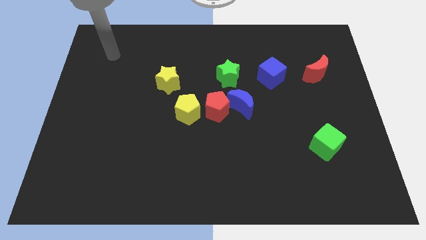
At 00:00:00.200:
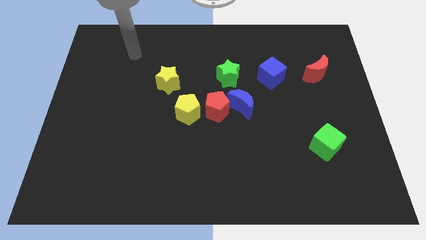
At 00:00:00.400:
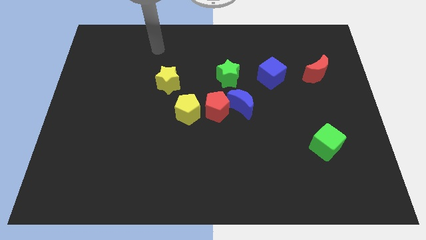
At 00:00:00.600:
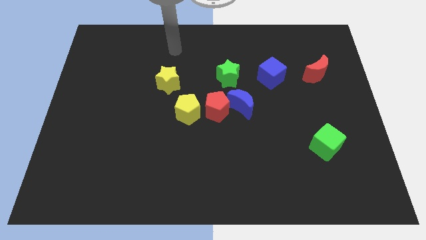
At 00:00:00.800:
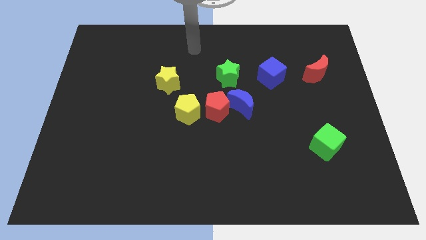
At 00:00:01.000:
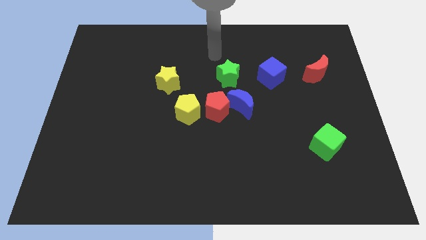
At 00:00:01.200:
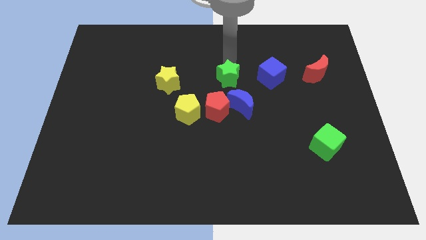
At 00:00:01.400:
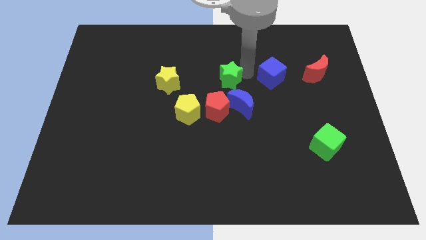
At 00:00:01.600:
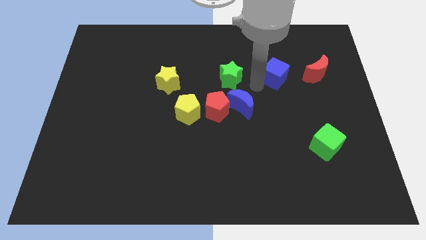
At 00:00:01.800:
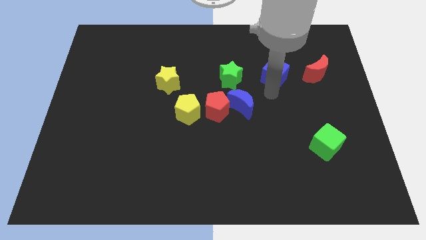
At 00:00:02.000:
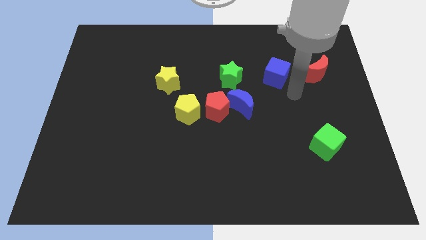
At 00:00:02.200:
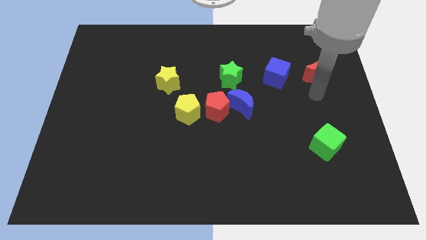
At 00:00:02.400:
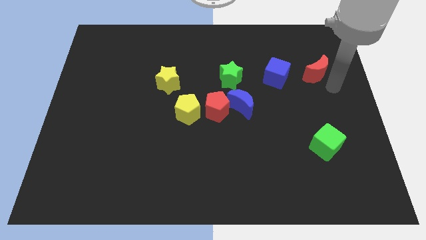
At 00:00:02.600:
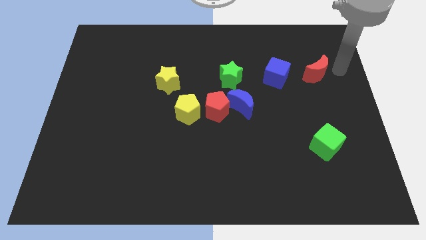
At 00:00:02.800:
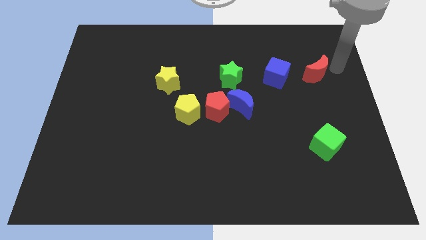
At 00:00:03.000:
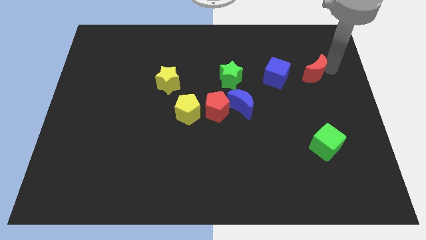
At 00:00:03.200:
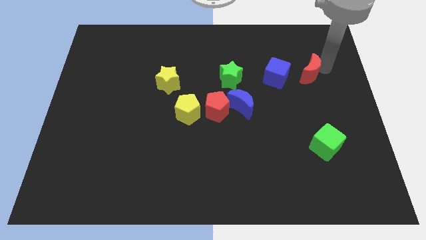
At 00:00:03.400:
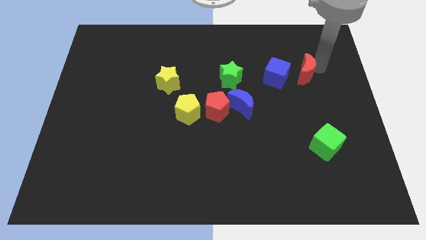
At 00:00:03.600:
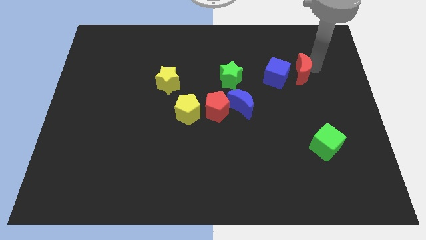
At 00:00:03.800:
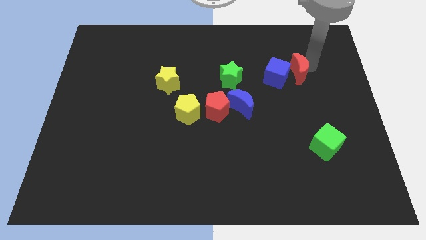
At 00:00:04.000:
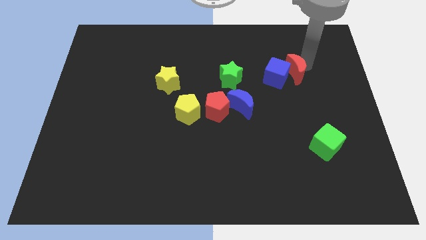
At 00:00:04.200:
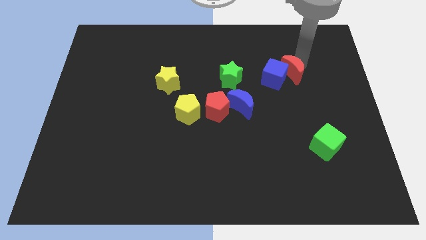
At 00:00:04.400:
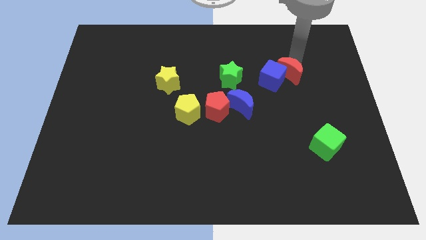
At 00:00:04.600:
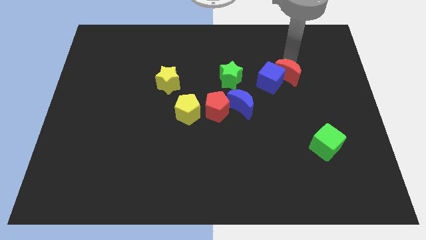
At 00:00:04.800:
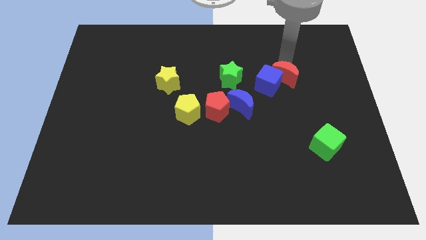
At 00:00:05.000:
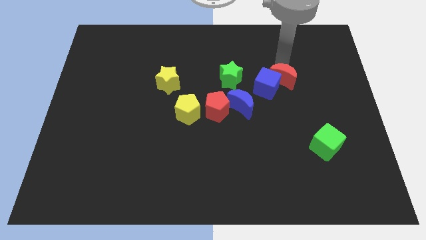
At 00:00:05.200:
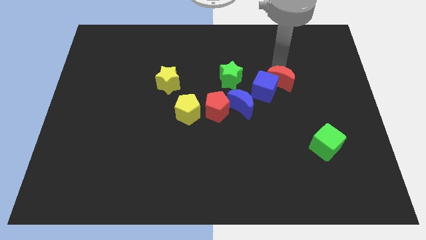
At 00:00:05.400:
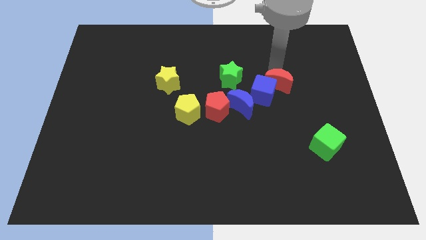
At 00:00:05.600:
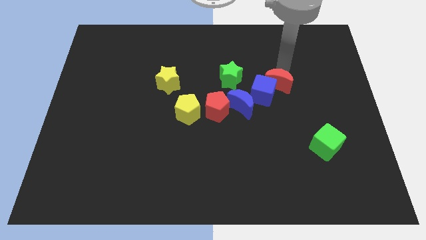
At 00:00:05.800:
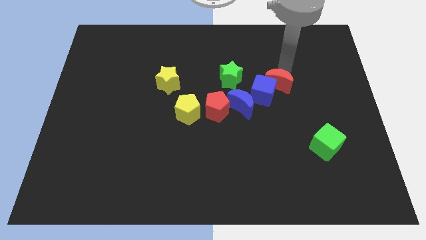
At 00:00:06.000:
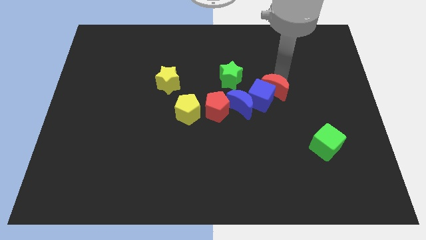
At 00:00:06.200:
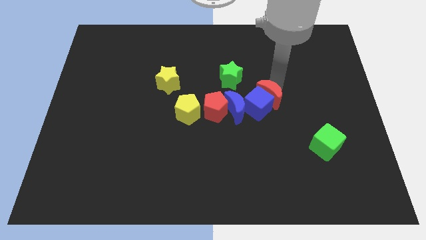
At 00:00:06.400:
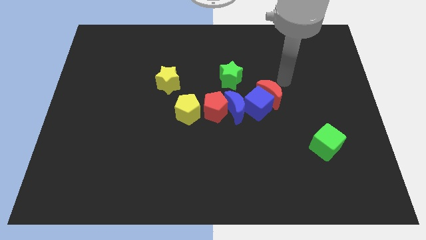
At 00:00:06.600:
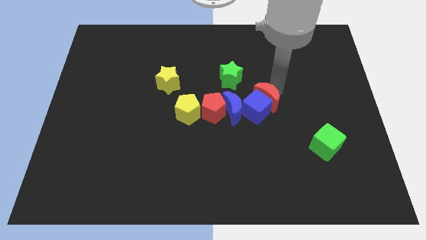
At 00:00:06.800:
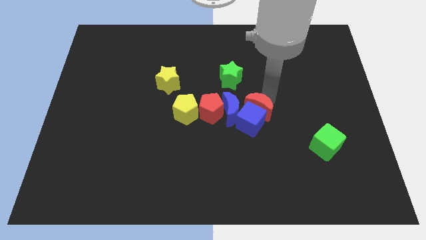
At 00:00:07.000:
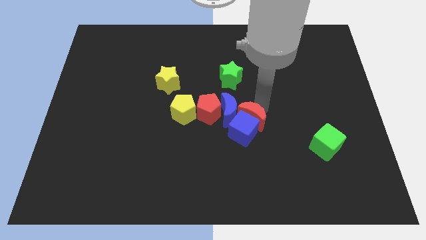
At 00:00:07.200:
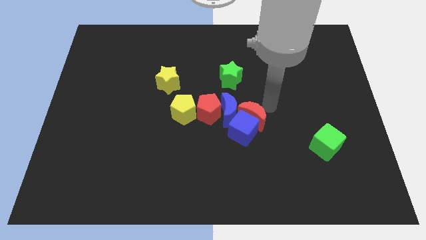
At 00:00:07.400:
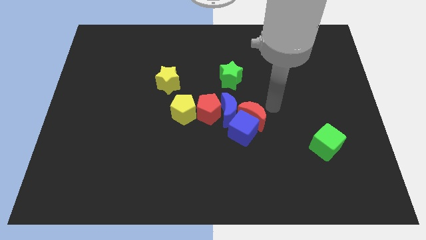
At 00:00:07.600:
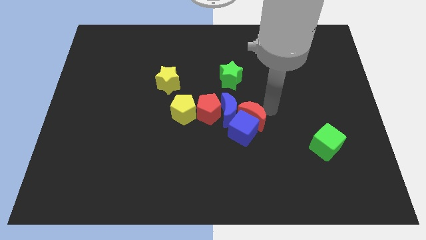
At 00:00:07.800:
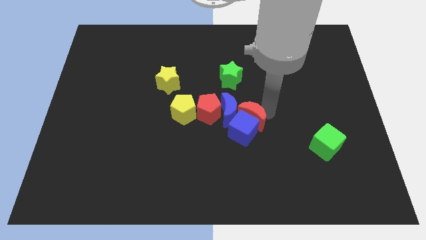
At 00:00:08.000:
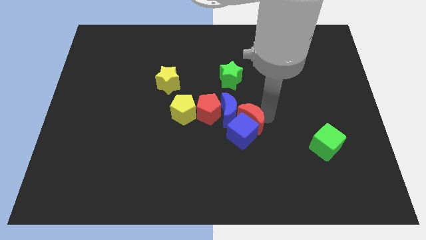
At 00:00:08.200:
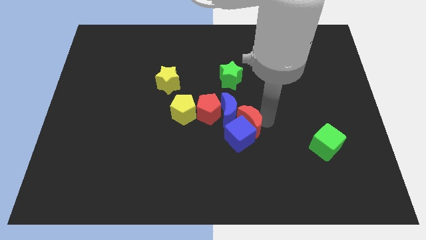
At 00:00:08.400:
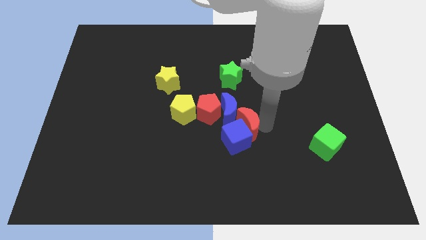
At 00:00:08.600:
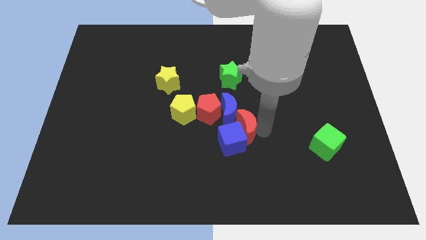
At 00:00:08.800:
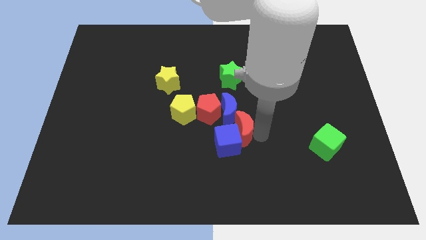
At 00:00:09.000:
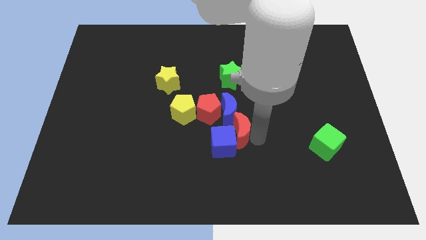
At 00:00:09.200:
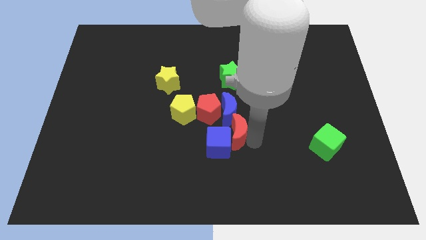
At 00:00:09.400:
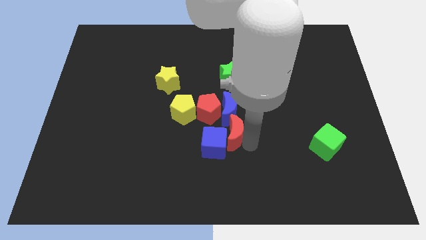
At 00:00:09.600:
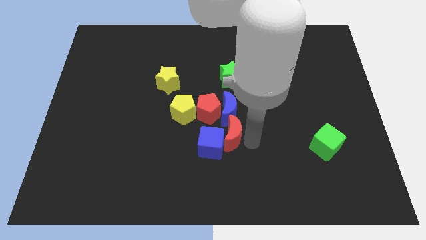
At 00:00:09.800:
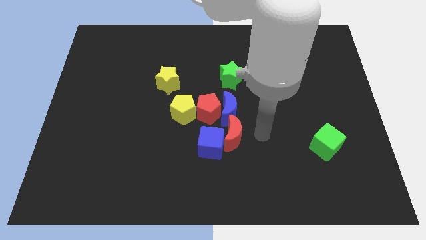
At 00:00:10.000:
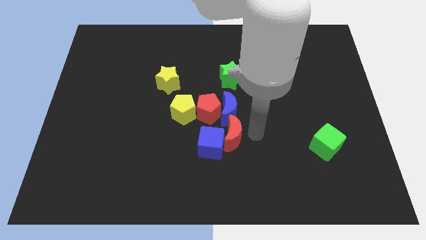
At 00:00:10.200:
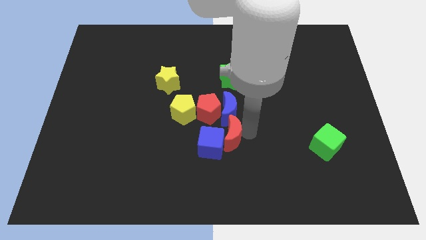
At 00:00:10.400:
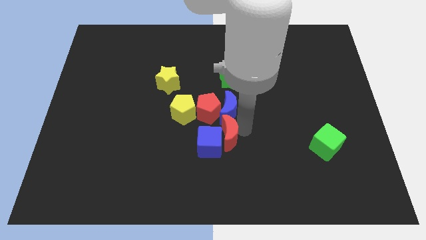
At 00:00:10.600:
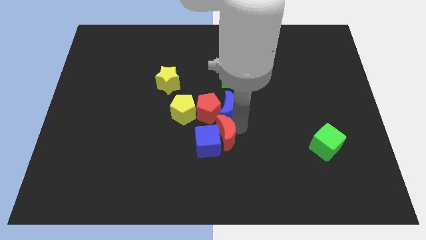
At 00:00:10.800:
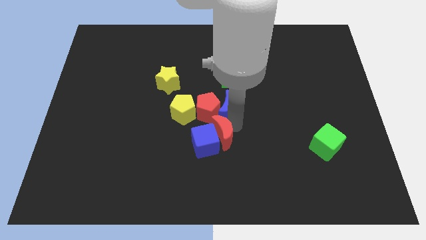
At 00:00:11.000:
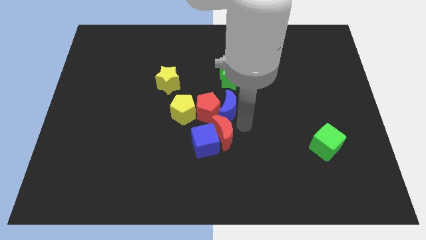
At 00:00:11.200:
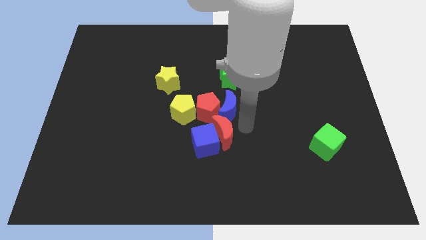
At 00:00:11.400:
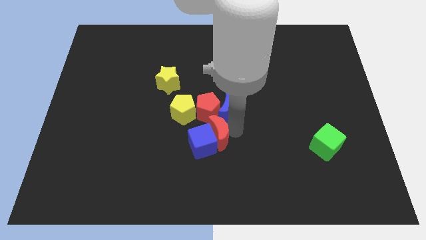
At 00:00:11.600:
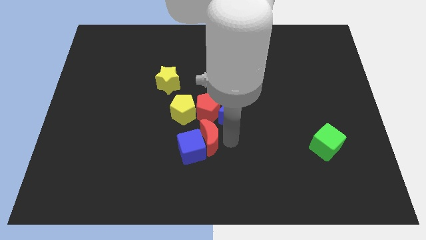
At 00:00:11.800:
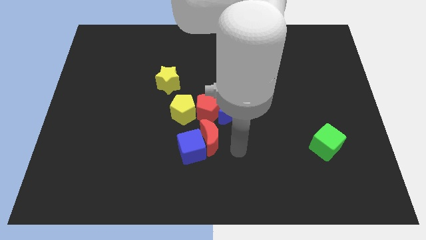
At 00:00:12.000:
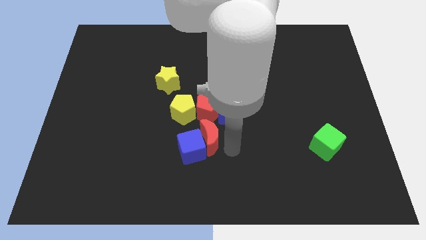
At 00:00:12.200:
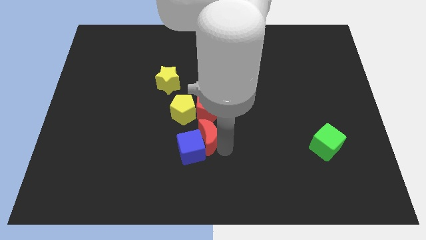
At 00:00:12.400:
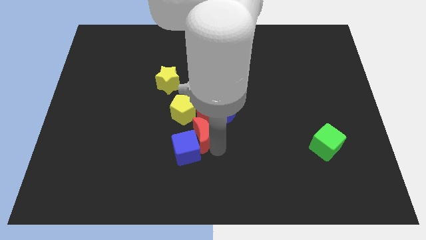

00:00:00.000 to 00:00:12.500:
push the red moon to the bottom left of the red pentagon
